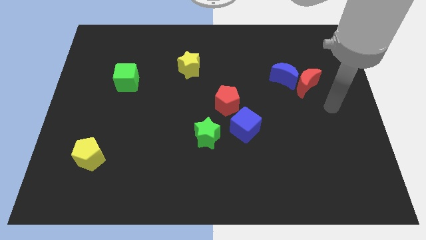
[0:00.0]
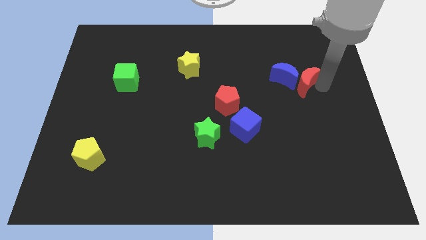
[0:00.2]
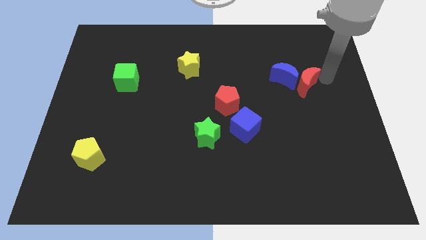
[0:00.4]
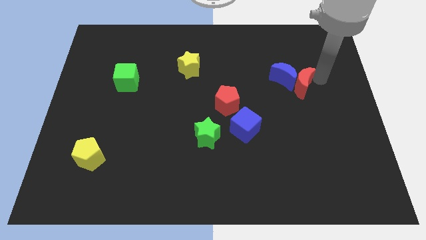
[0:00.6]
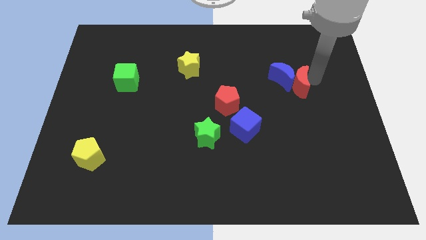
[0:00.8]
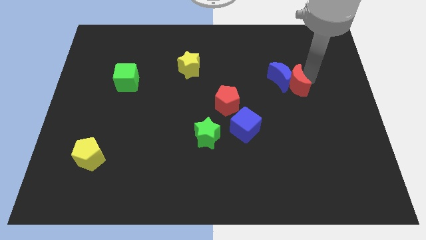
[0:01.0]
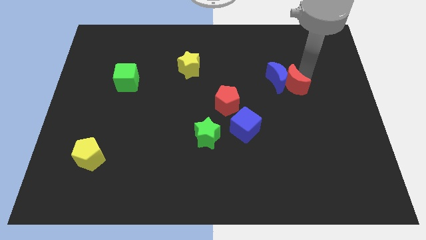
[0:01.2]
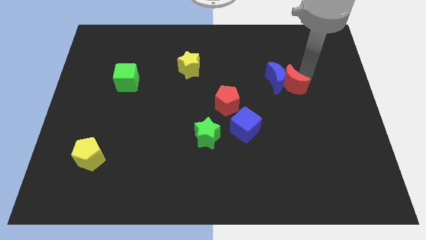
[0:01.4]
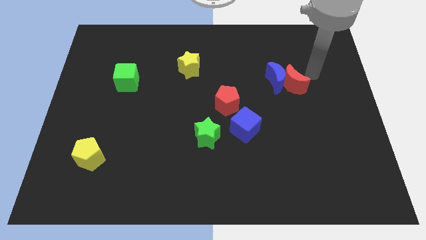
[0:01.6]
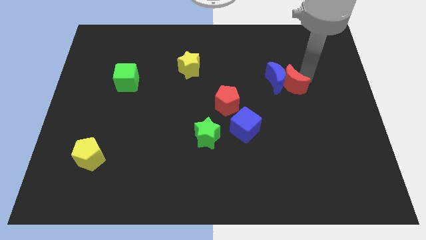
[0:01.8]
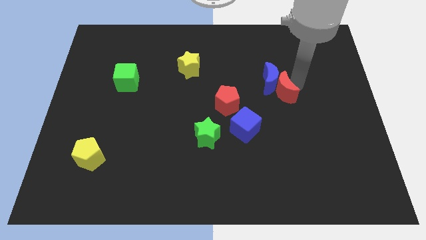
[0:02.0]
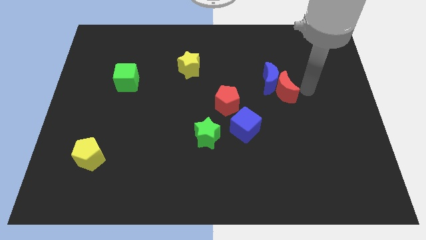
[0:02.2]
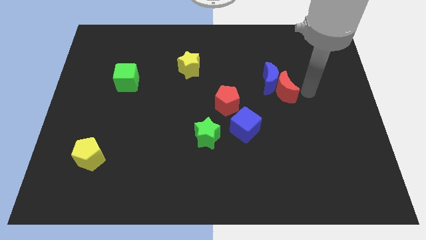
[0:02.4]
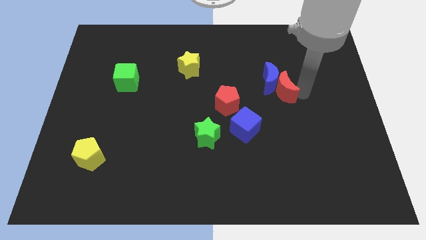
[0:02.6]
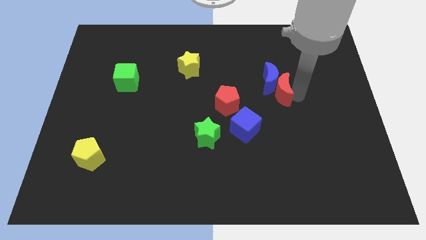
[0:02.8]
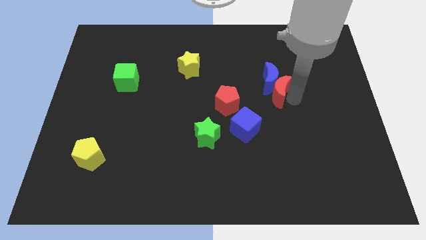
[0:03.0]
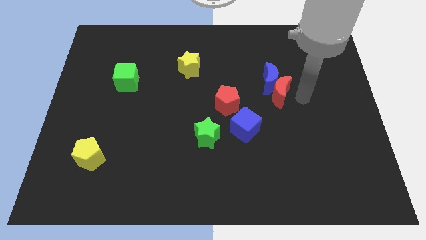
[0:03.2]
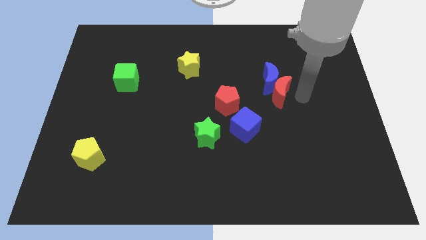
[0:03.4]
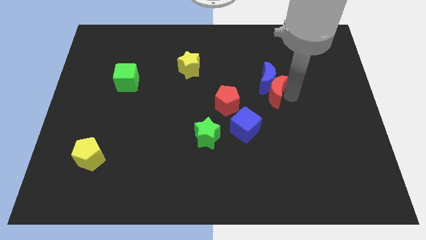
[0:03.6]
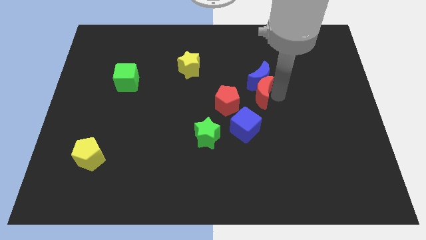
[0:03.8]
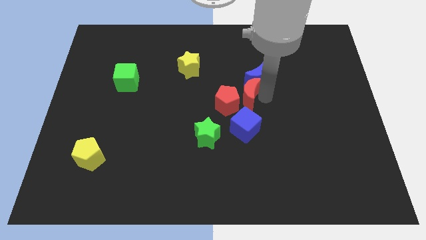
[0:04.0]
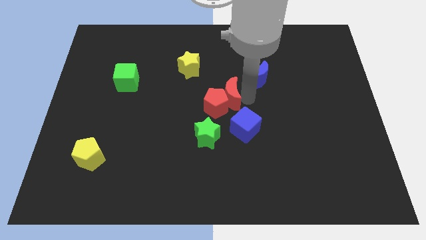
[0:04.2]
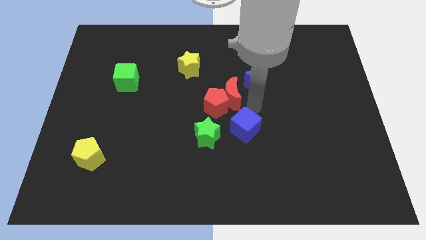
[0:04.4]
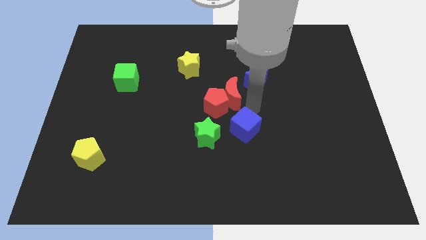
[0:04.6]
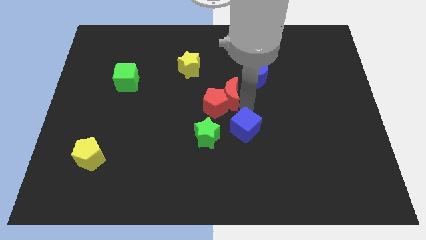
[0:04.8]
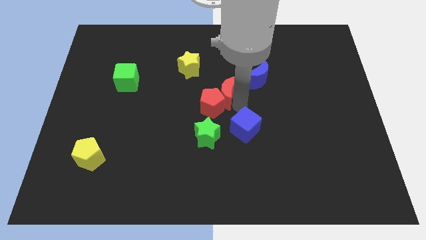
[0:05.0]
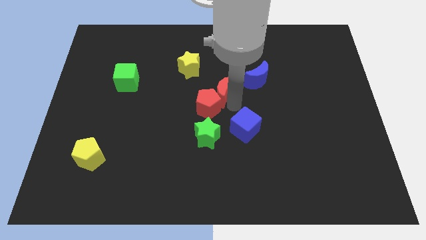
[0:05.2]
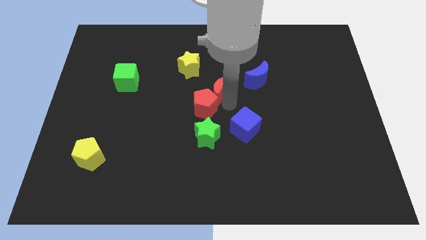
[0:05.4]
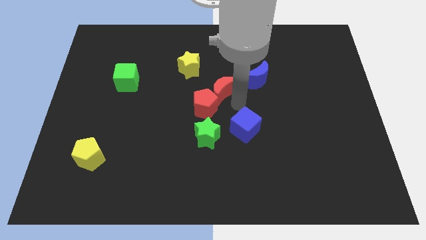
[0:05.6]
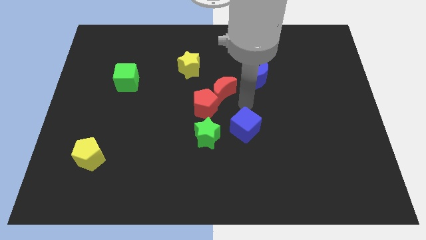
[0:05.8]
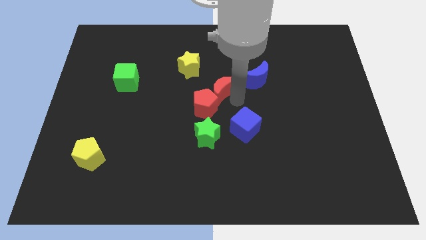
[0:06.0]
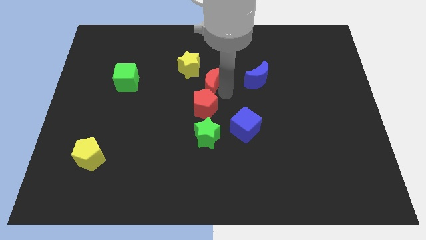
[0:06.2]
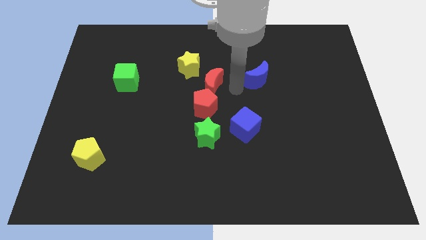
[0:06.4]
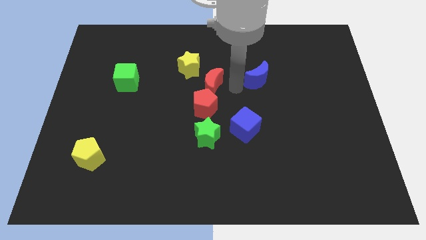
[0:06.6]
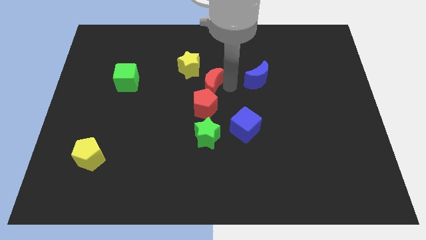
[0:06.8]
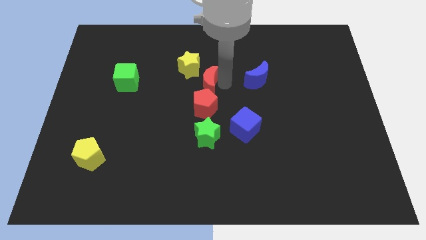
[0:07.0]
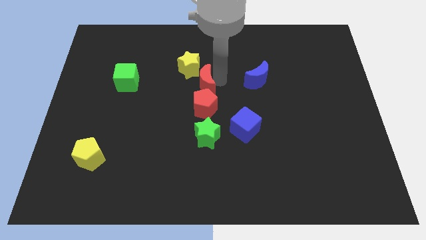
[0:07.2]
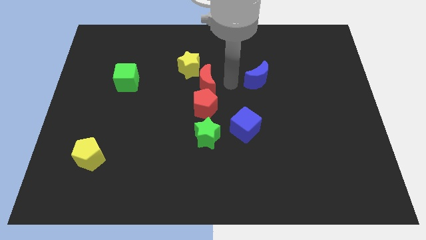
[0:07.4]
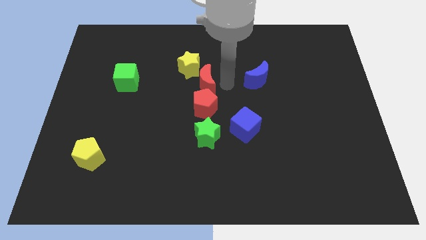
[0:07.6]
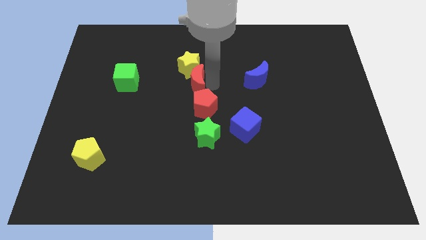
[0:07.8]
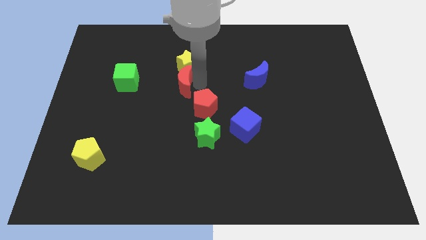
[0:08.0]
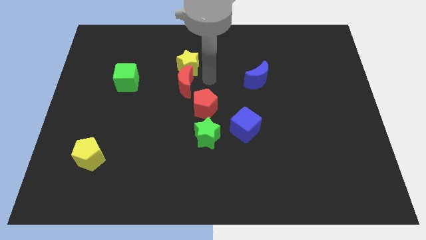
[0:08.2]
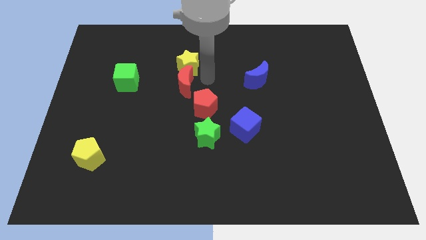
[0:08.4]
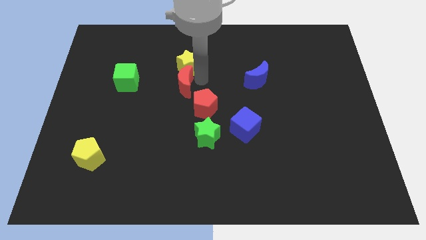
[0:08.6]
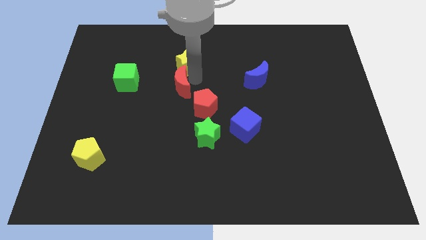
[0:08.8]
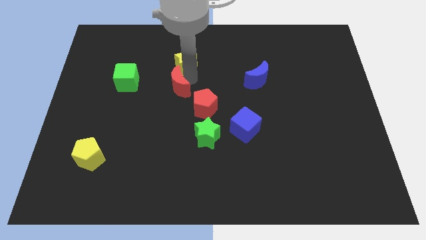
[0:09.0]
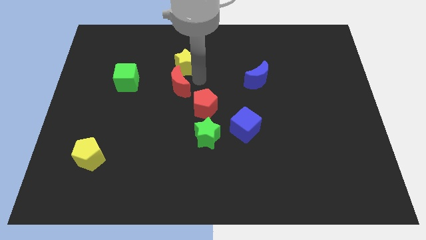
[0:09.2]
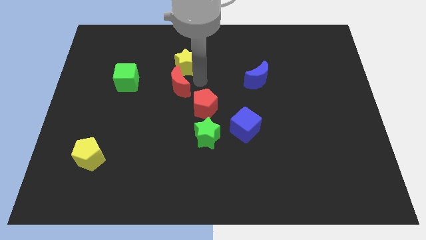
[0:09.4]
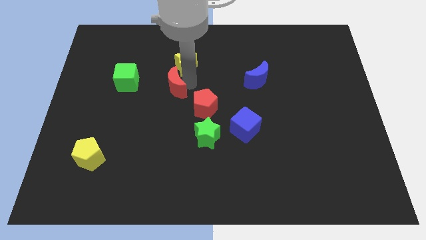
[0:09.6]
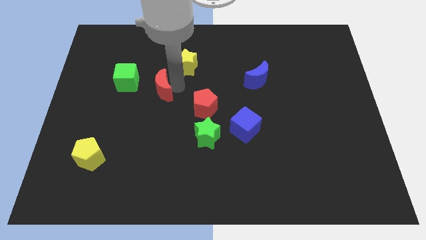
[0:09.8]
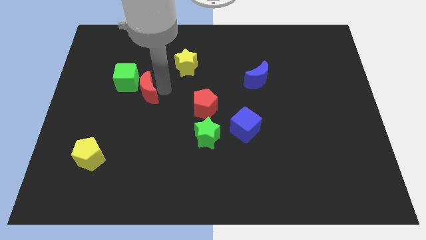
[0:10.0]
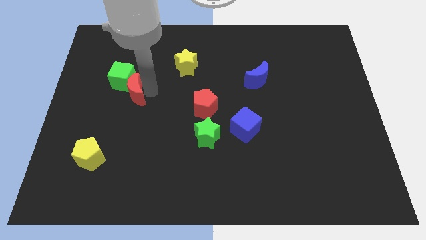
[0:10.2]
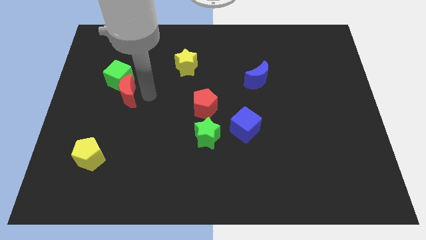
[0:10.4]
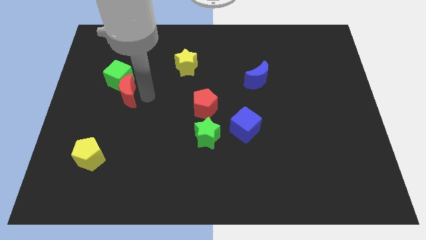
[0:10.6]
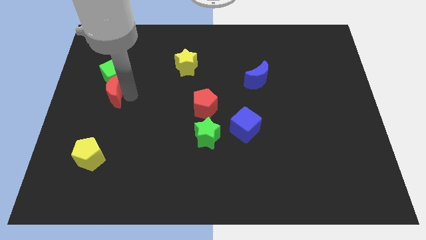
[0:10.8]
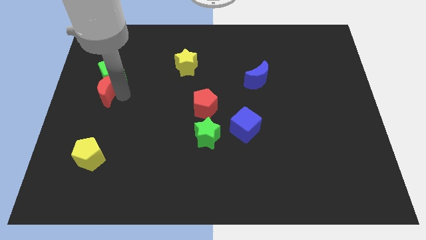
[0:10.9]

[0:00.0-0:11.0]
push the red moon to the left side of the board

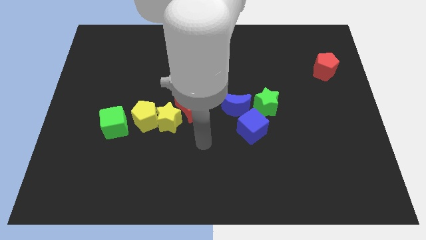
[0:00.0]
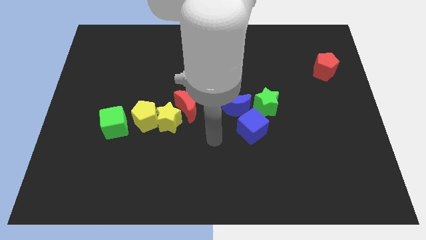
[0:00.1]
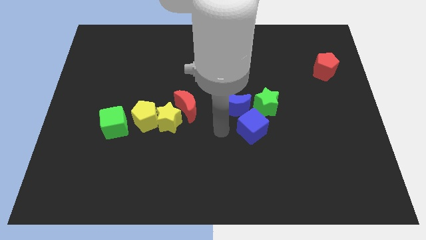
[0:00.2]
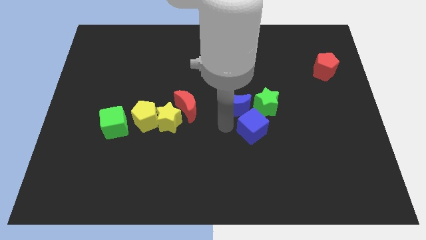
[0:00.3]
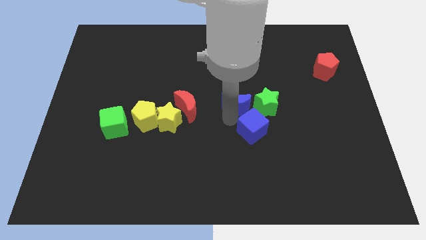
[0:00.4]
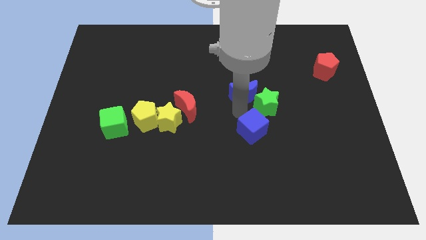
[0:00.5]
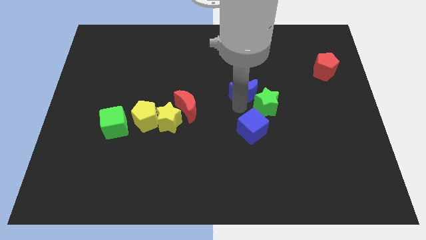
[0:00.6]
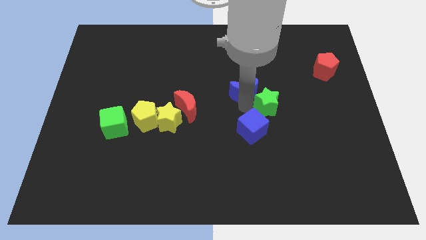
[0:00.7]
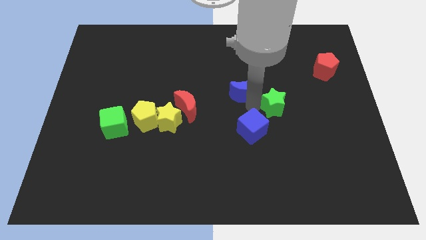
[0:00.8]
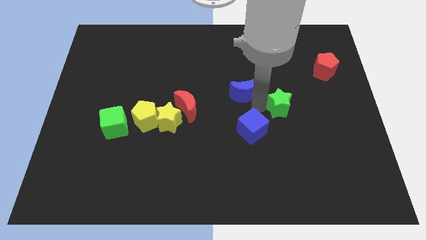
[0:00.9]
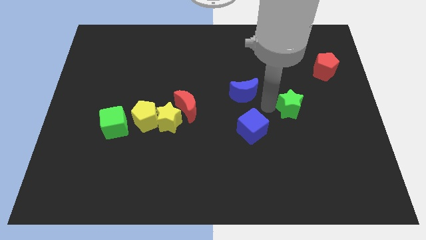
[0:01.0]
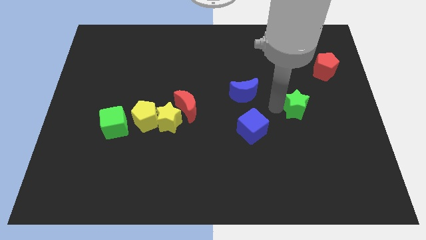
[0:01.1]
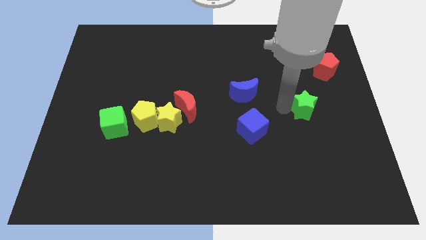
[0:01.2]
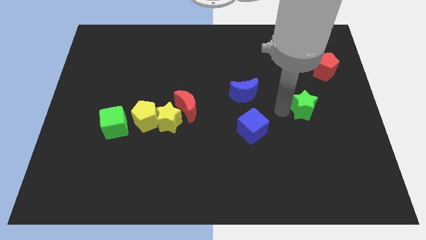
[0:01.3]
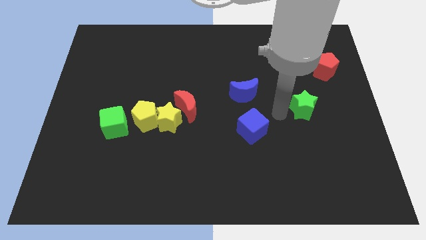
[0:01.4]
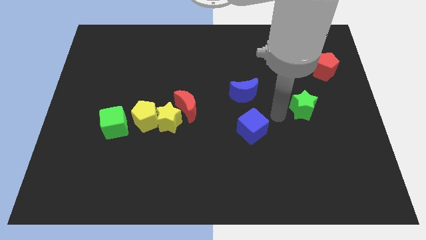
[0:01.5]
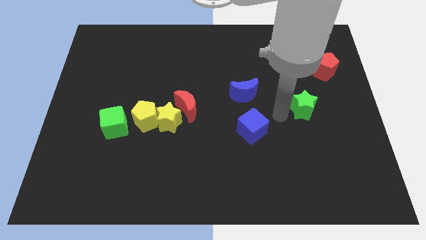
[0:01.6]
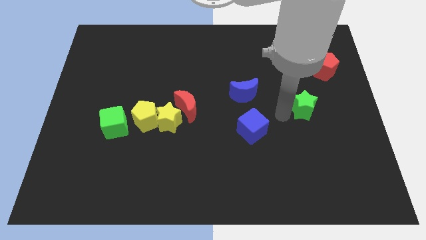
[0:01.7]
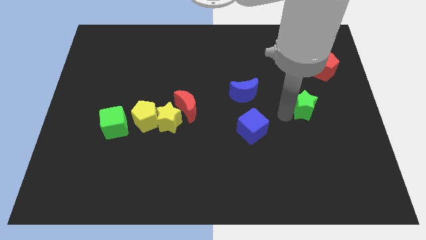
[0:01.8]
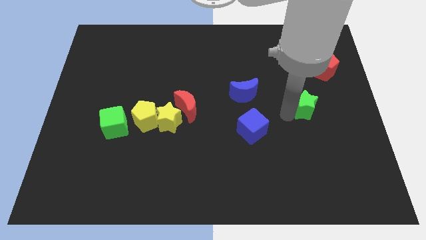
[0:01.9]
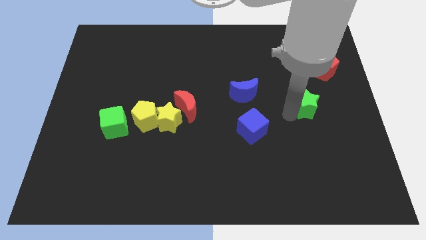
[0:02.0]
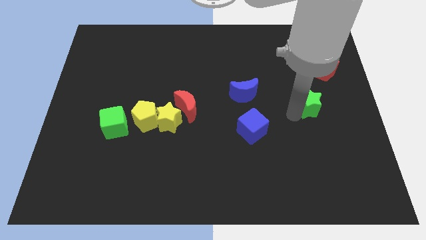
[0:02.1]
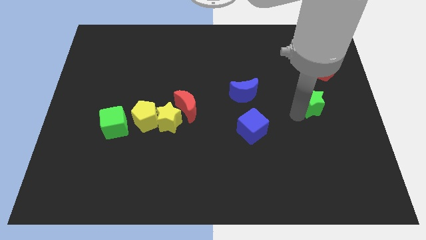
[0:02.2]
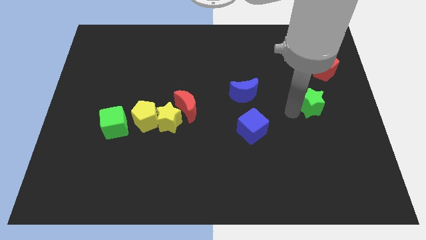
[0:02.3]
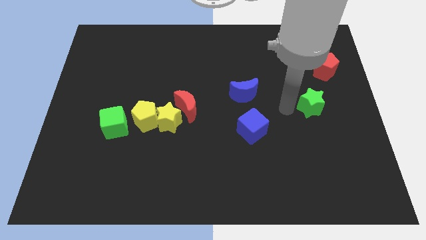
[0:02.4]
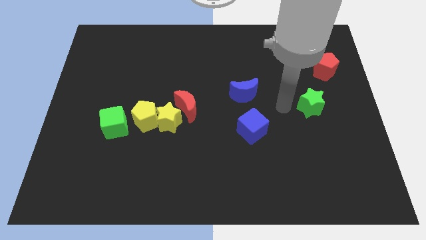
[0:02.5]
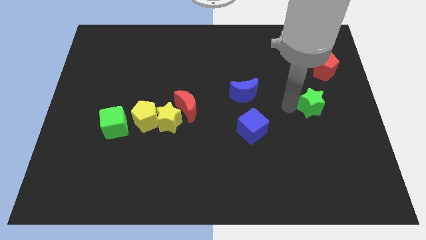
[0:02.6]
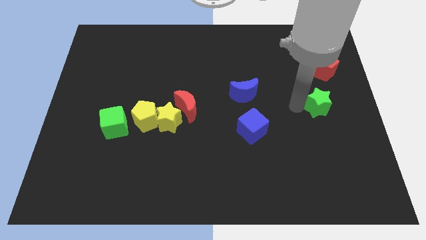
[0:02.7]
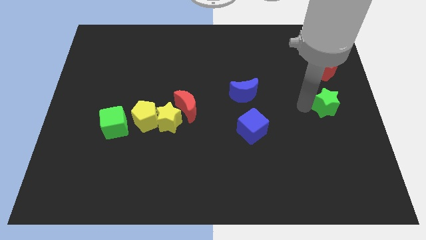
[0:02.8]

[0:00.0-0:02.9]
slide the green star to the center right
